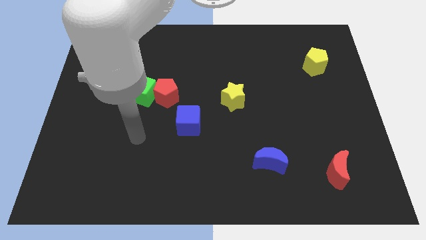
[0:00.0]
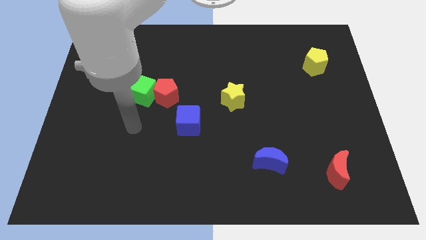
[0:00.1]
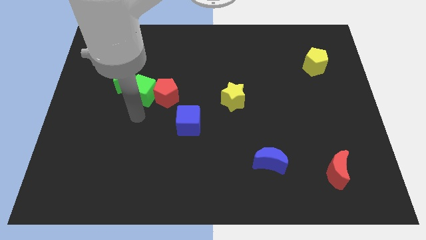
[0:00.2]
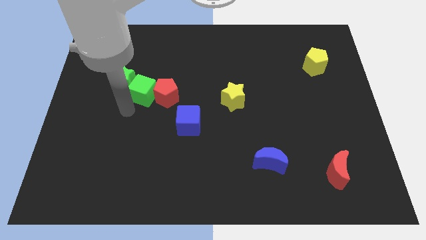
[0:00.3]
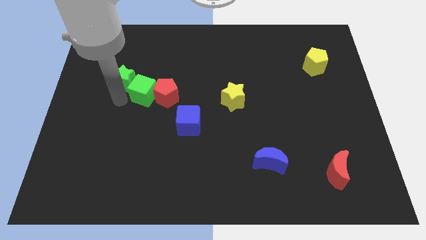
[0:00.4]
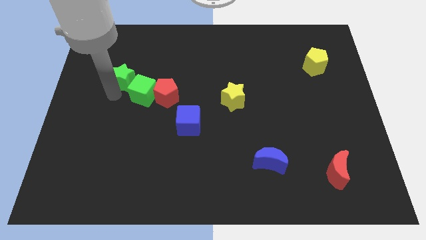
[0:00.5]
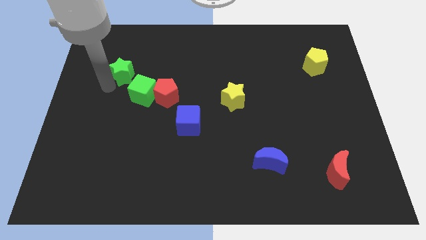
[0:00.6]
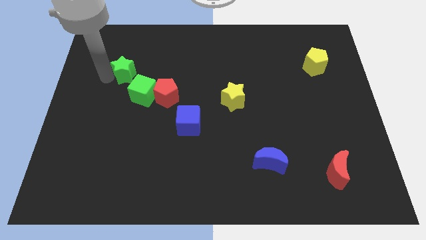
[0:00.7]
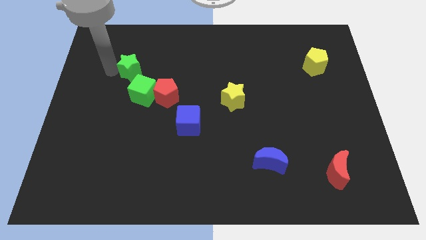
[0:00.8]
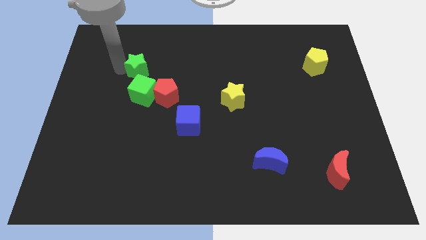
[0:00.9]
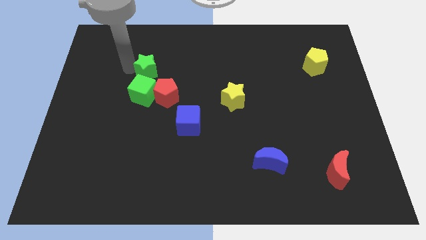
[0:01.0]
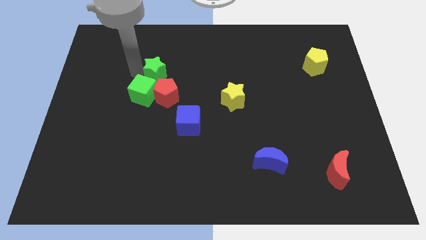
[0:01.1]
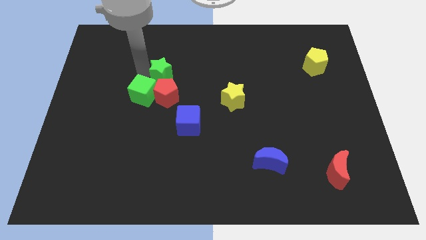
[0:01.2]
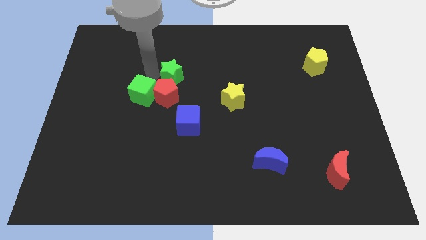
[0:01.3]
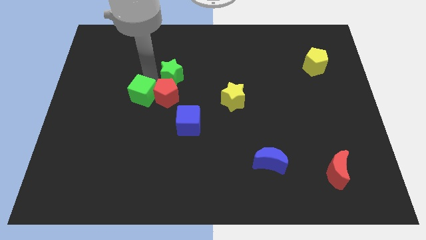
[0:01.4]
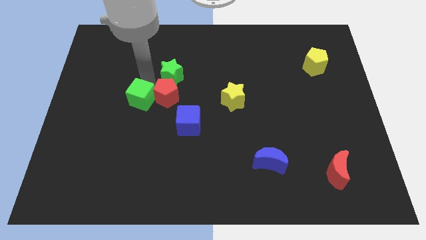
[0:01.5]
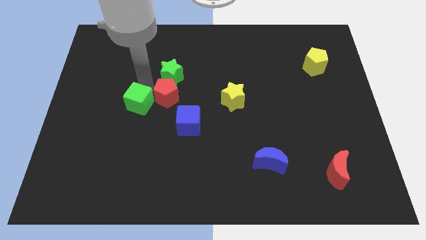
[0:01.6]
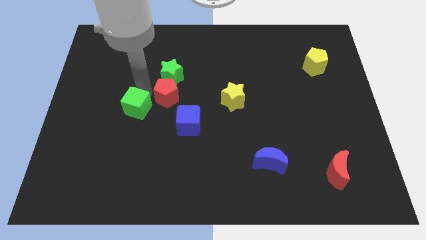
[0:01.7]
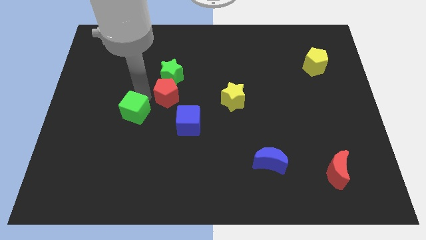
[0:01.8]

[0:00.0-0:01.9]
pull the green cube apart from the red pentagon and green star

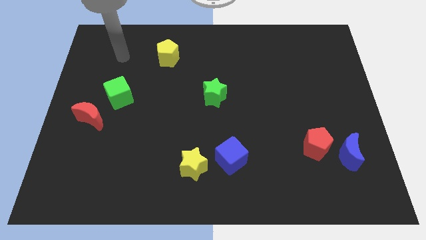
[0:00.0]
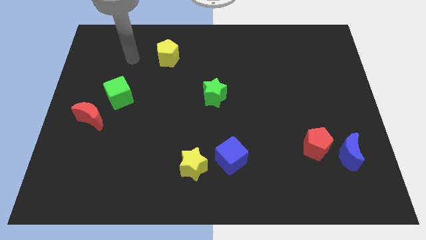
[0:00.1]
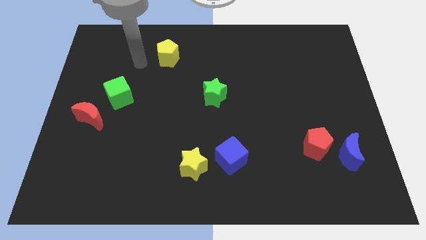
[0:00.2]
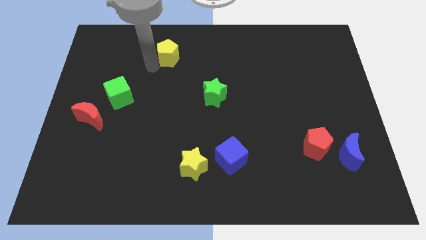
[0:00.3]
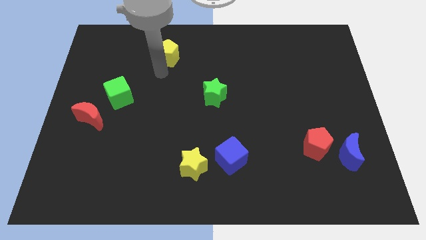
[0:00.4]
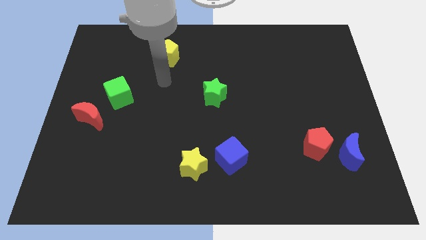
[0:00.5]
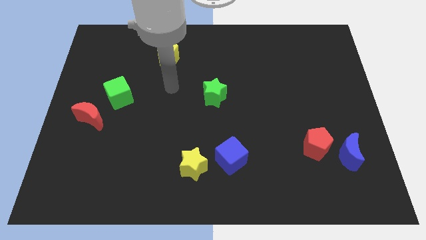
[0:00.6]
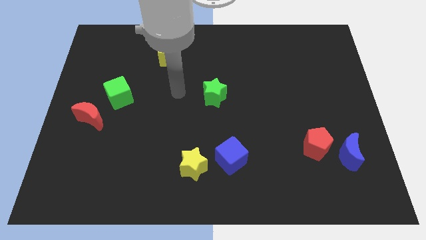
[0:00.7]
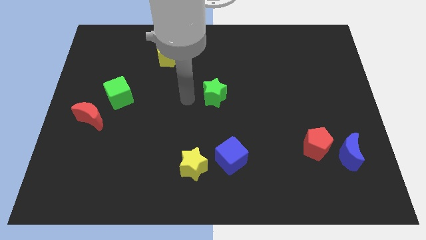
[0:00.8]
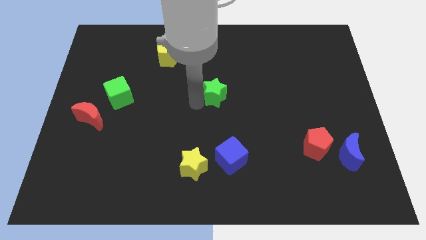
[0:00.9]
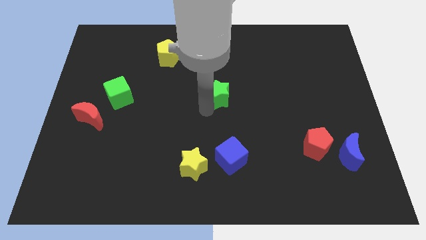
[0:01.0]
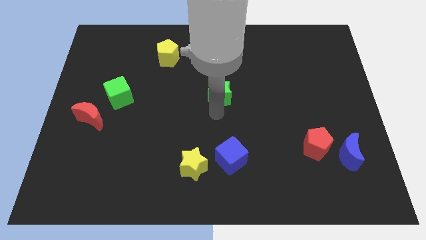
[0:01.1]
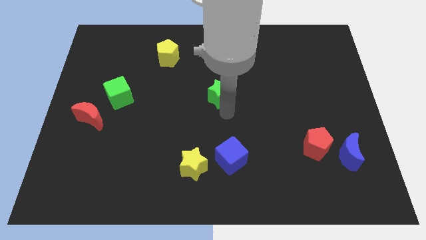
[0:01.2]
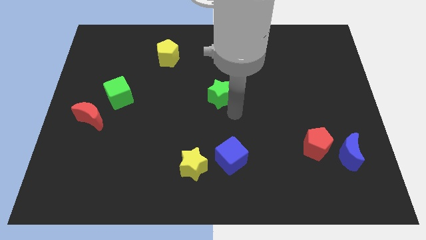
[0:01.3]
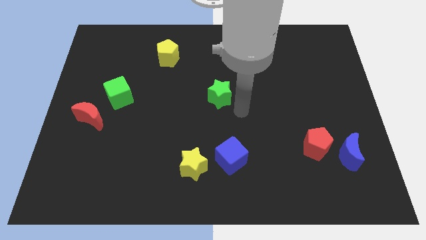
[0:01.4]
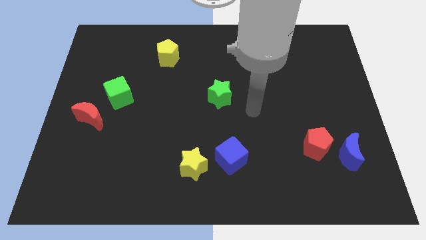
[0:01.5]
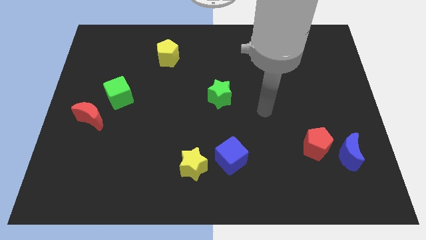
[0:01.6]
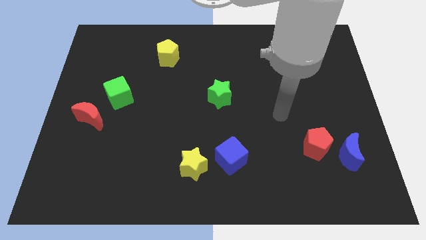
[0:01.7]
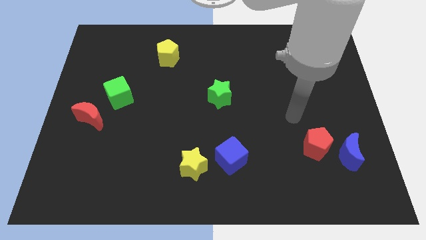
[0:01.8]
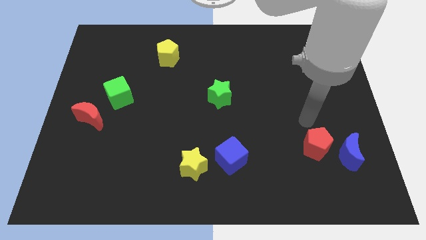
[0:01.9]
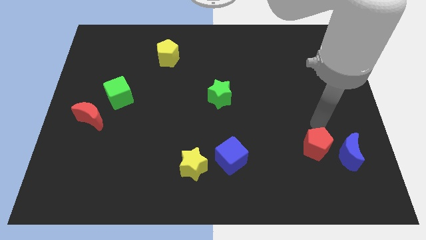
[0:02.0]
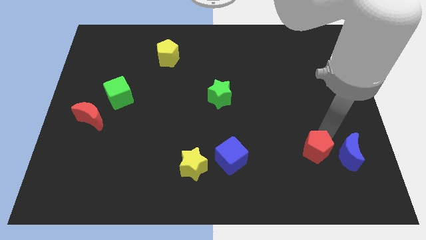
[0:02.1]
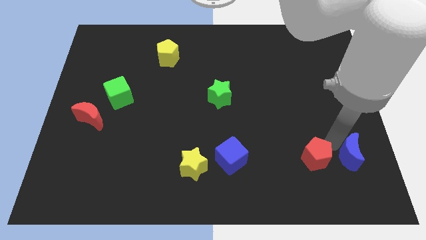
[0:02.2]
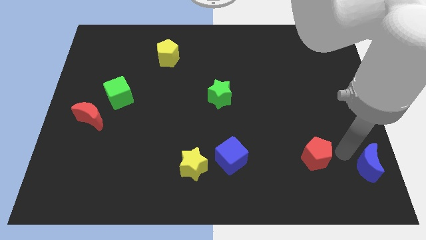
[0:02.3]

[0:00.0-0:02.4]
move the red pentagon away from the blue moon

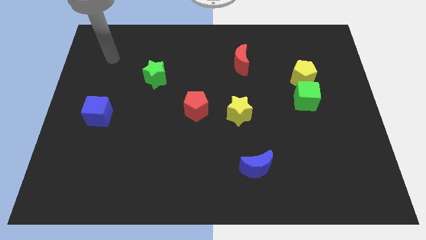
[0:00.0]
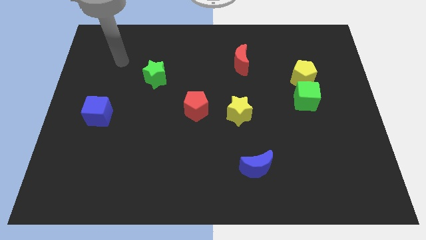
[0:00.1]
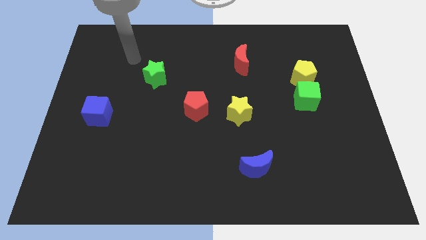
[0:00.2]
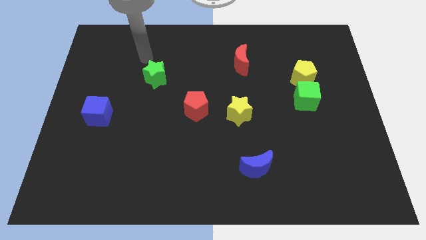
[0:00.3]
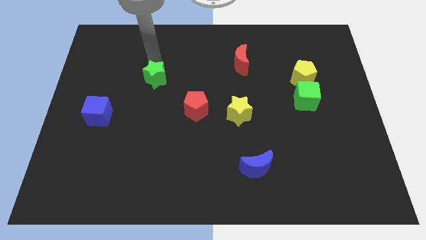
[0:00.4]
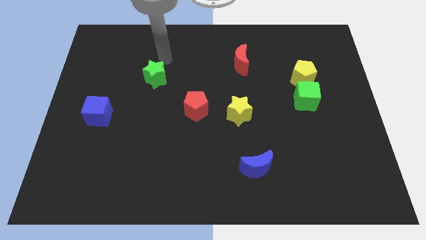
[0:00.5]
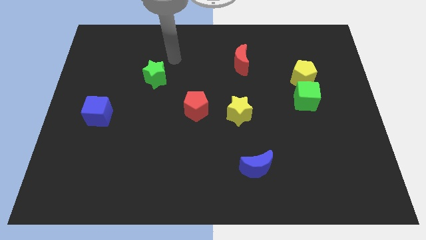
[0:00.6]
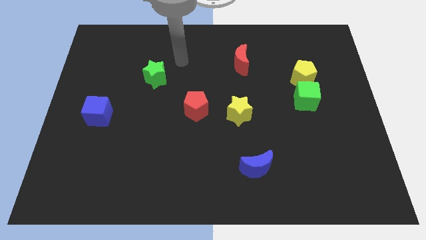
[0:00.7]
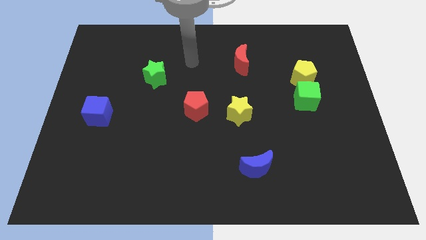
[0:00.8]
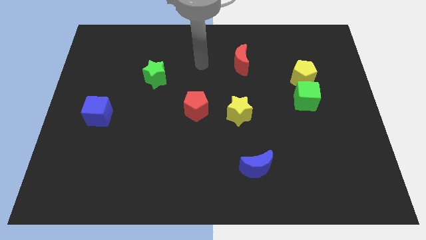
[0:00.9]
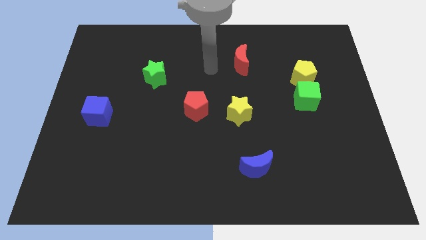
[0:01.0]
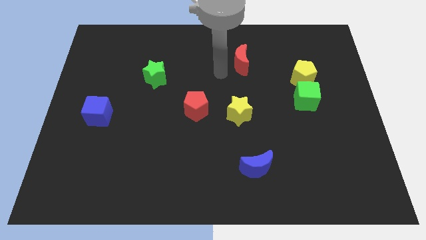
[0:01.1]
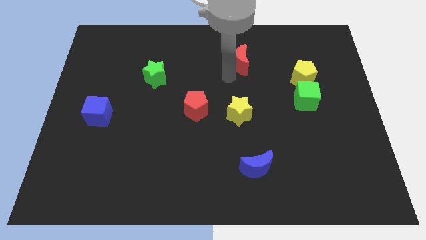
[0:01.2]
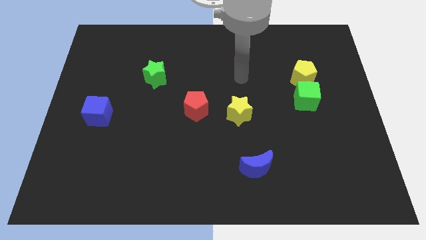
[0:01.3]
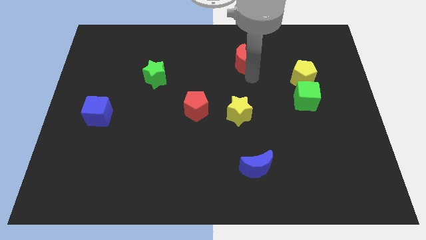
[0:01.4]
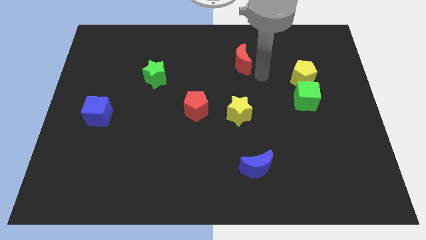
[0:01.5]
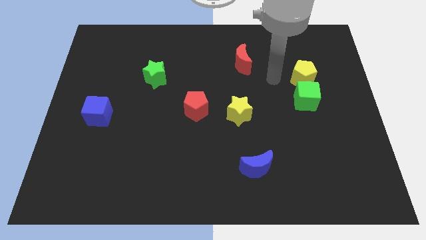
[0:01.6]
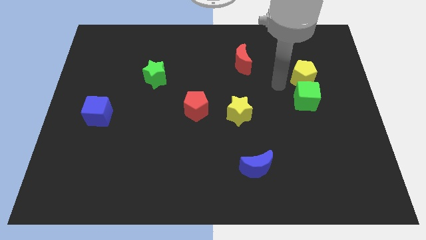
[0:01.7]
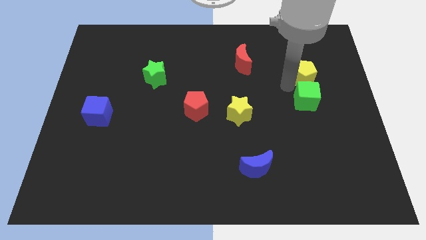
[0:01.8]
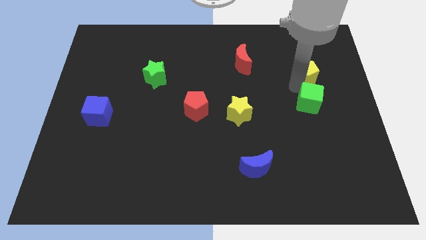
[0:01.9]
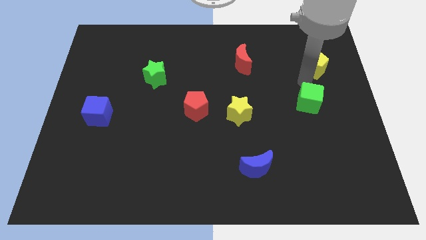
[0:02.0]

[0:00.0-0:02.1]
pull the green cube apart from the yellow pentagon

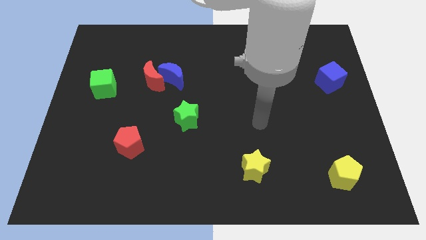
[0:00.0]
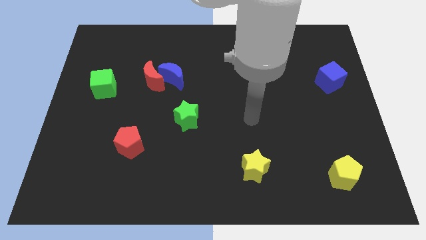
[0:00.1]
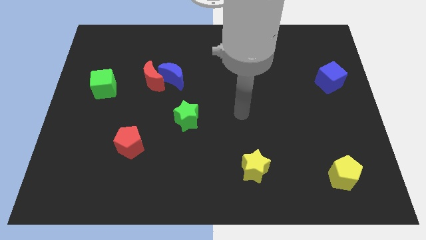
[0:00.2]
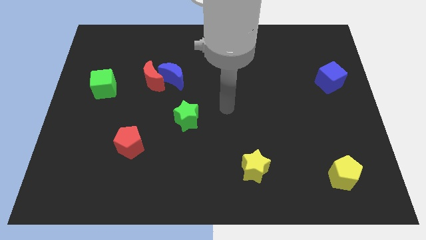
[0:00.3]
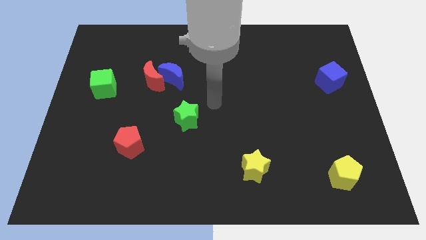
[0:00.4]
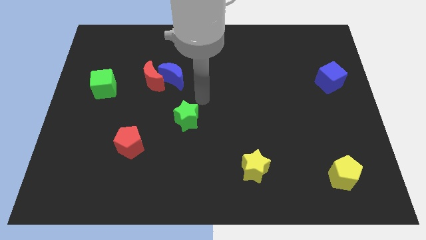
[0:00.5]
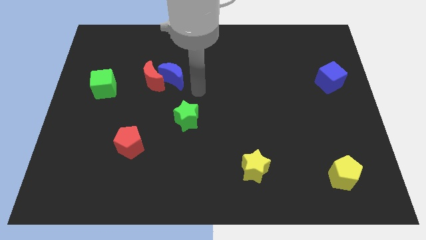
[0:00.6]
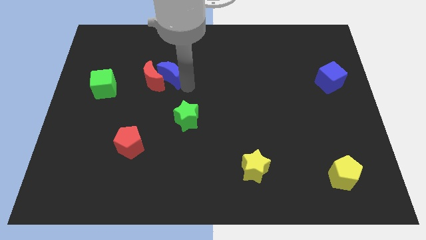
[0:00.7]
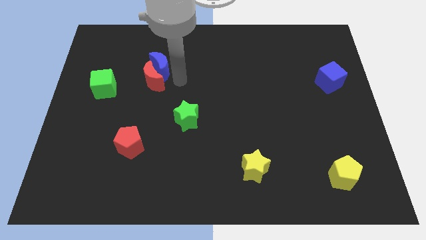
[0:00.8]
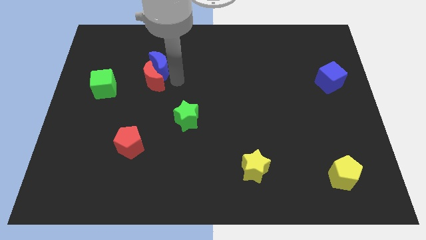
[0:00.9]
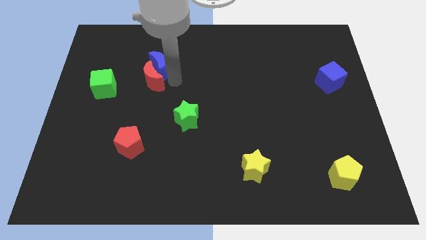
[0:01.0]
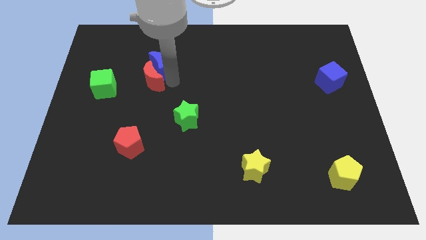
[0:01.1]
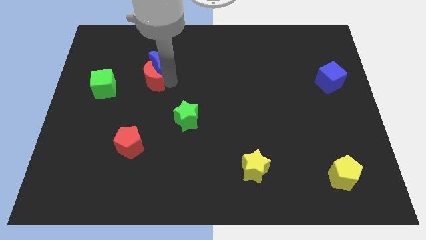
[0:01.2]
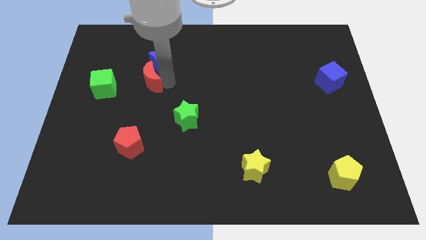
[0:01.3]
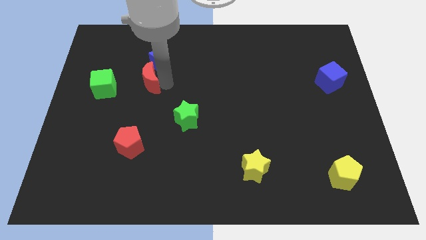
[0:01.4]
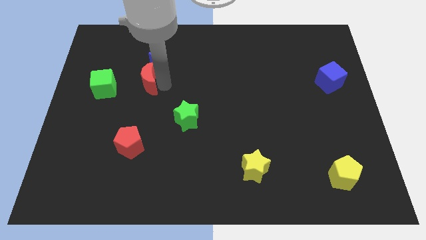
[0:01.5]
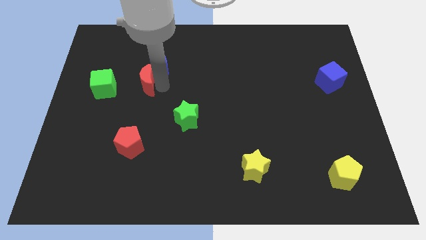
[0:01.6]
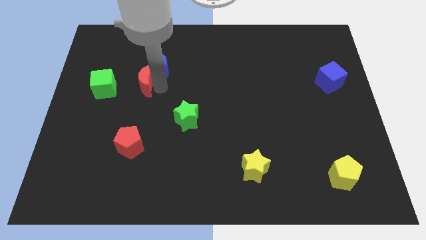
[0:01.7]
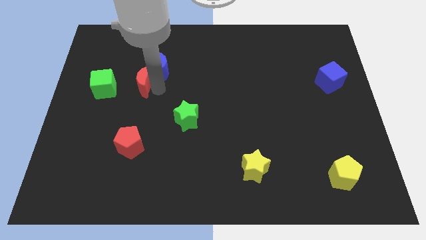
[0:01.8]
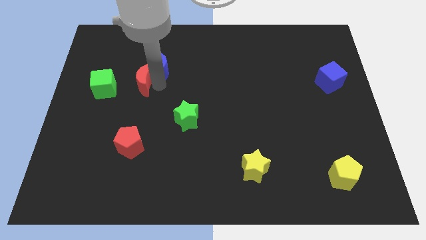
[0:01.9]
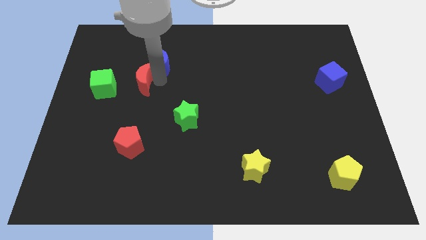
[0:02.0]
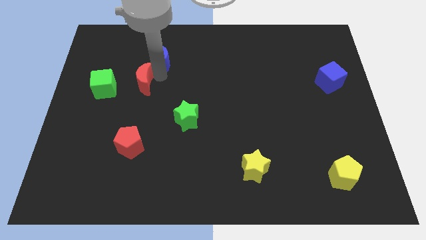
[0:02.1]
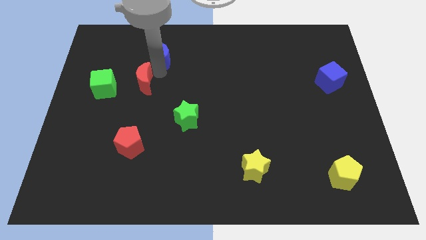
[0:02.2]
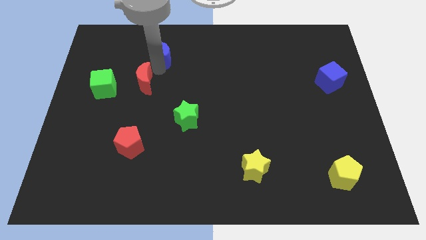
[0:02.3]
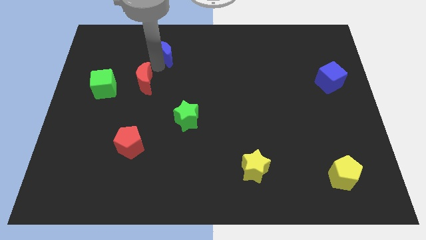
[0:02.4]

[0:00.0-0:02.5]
move the red moon away from the blue moon

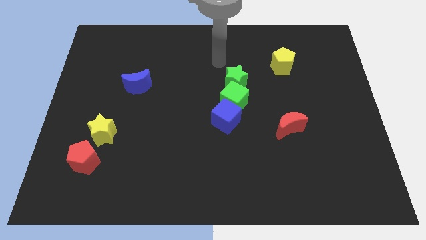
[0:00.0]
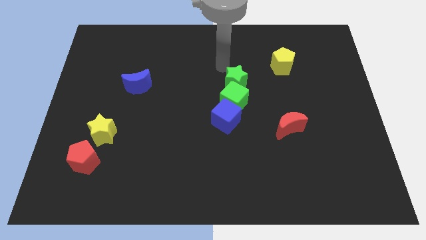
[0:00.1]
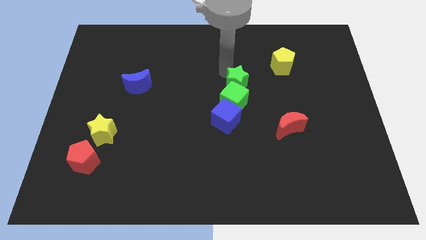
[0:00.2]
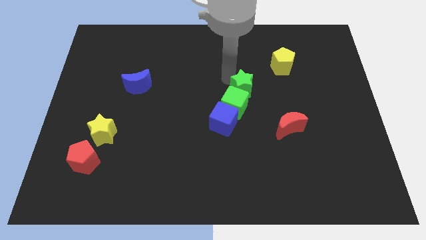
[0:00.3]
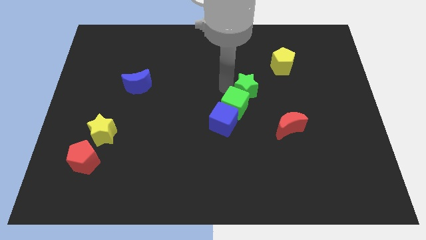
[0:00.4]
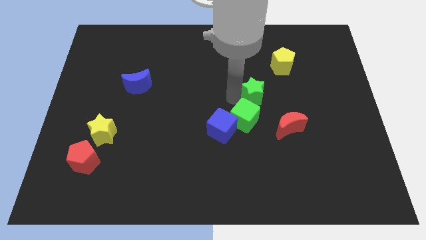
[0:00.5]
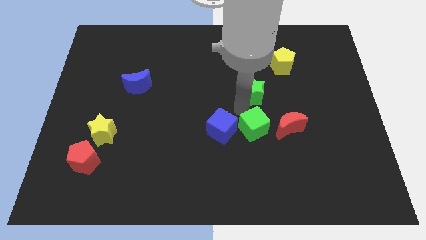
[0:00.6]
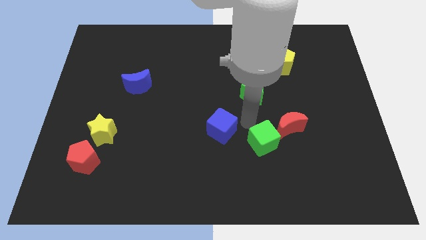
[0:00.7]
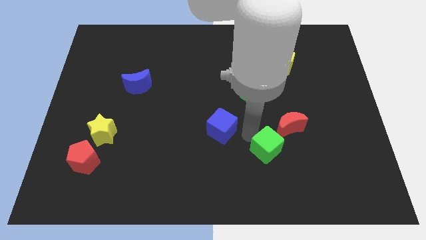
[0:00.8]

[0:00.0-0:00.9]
pull the blue cube apart from the green cube
